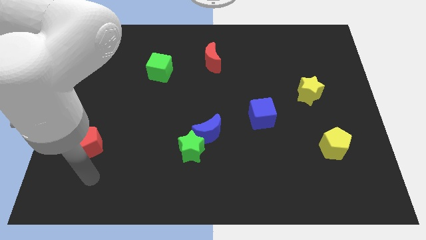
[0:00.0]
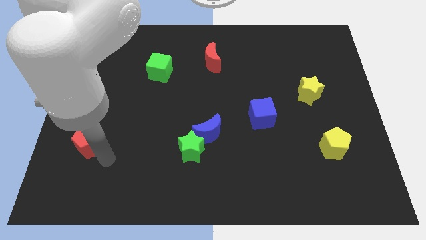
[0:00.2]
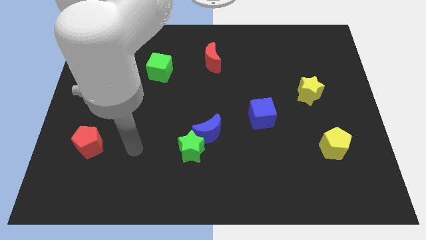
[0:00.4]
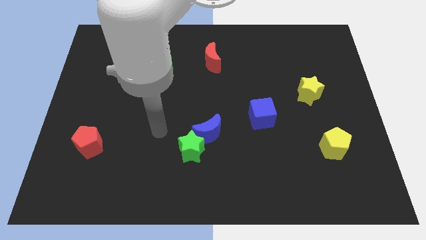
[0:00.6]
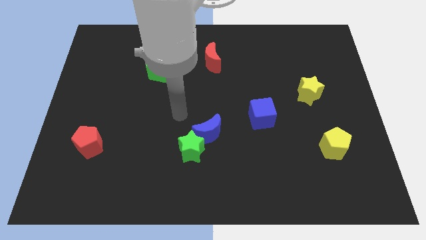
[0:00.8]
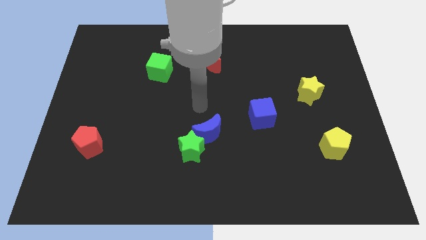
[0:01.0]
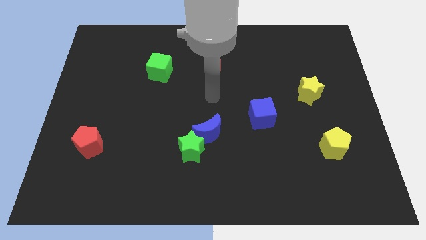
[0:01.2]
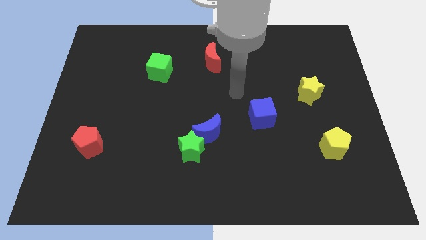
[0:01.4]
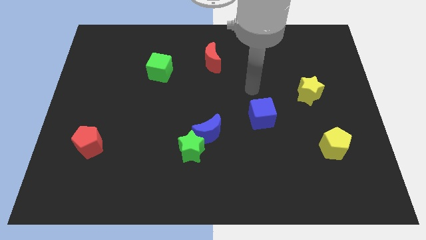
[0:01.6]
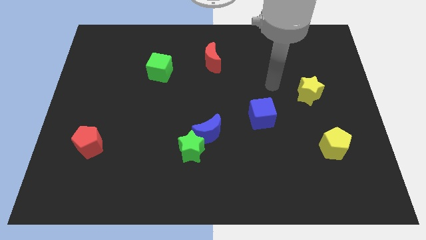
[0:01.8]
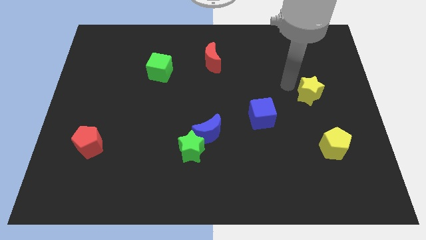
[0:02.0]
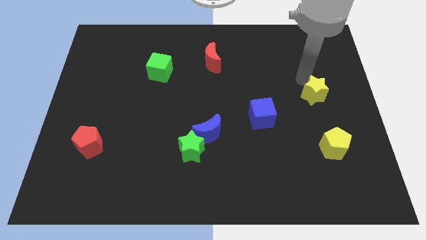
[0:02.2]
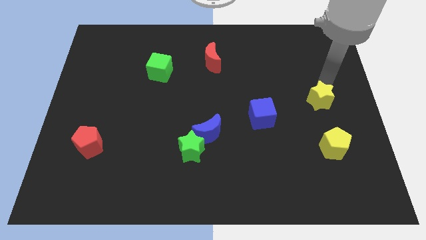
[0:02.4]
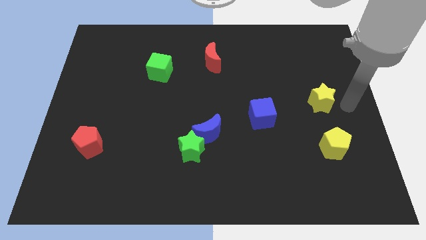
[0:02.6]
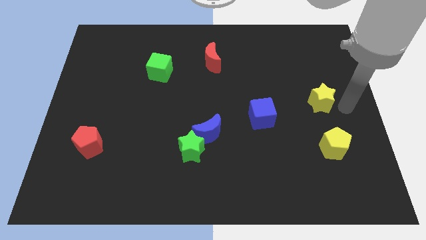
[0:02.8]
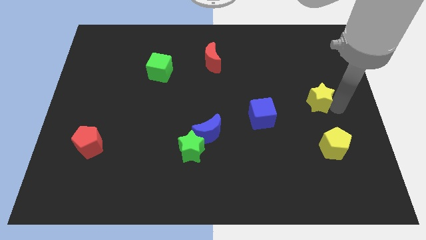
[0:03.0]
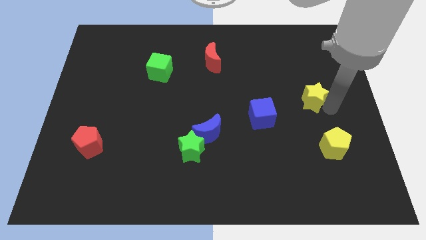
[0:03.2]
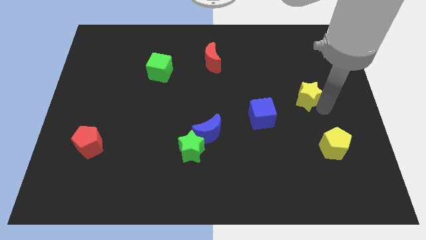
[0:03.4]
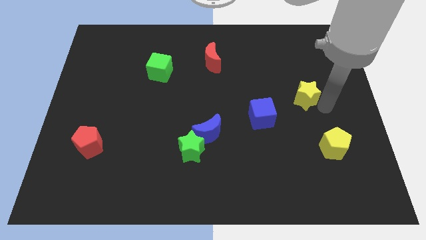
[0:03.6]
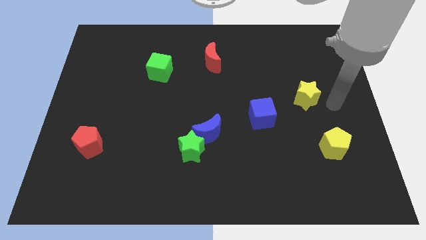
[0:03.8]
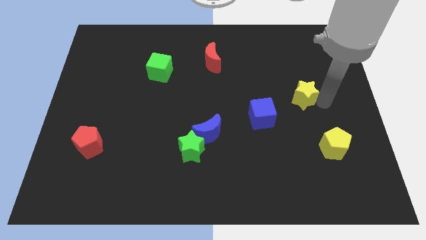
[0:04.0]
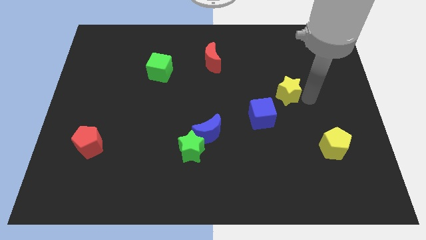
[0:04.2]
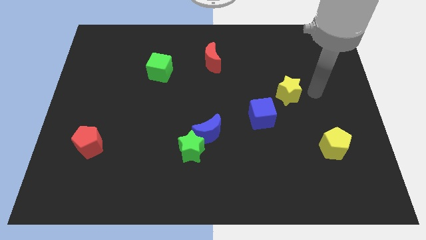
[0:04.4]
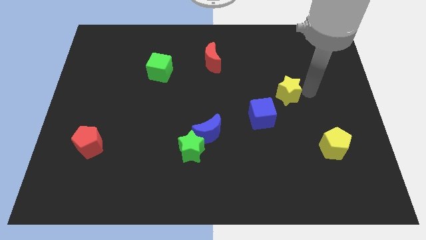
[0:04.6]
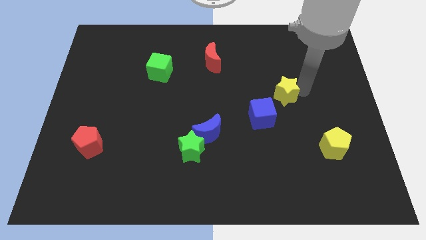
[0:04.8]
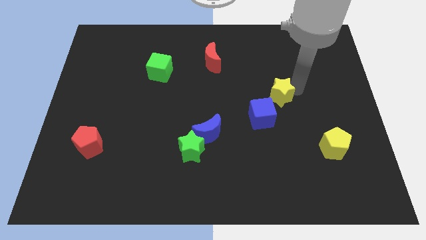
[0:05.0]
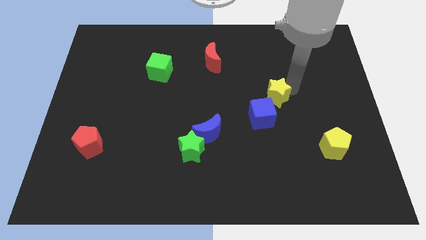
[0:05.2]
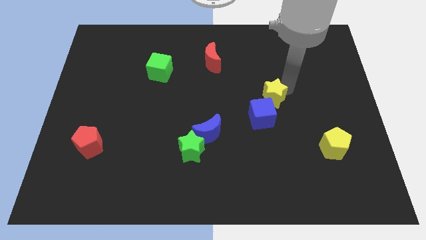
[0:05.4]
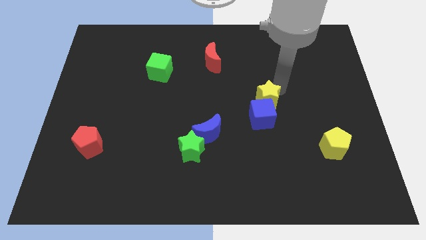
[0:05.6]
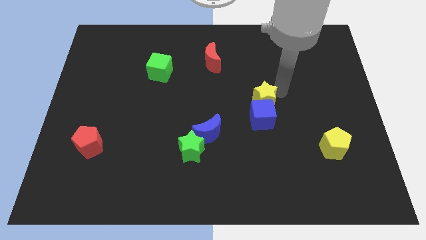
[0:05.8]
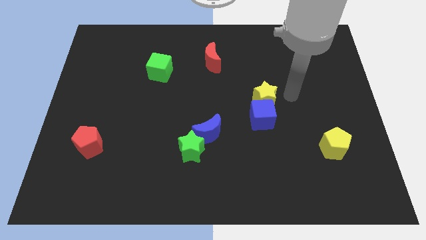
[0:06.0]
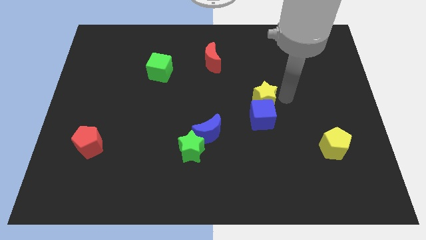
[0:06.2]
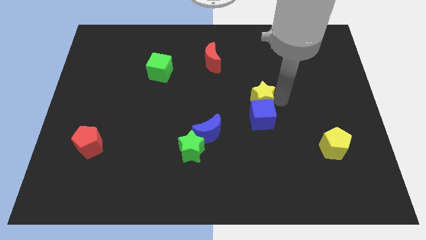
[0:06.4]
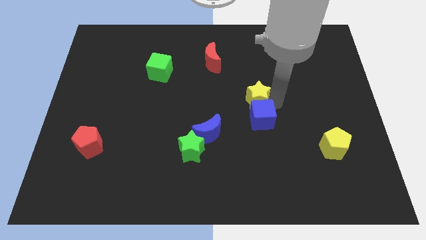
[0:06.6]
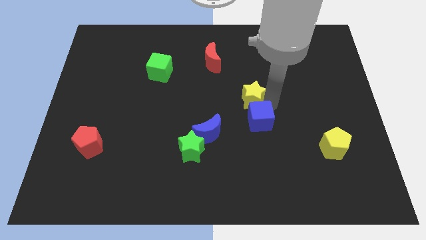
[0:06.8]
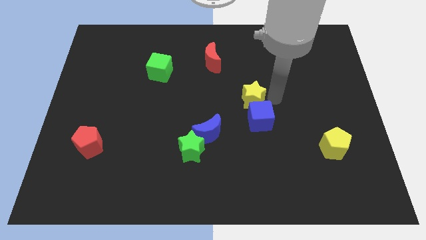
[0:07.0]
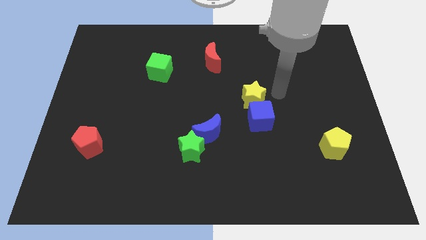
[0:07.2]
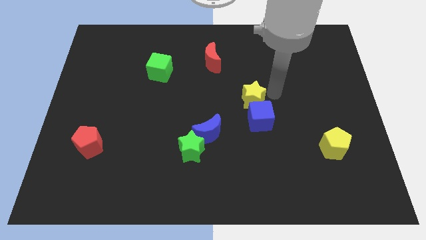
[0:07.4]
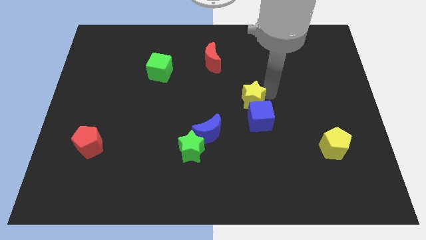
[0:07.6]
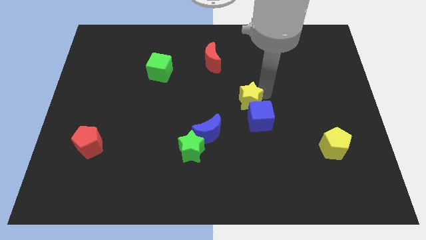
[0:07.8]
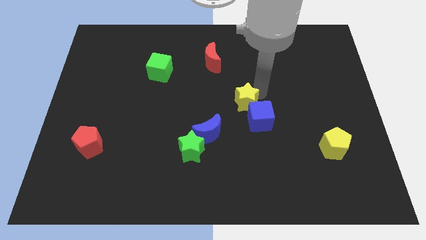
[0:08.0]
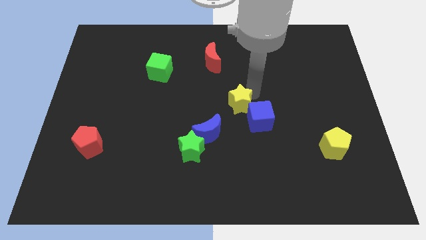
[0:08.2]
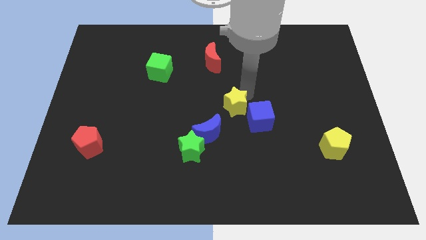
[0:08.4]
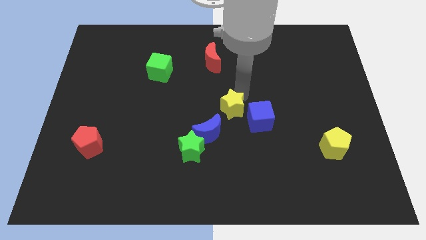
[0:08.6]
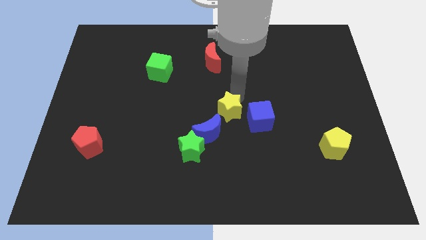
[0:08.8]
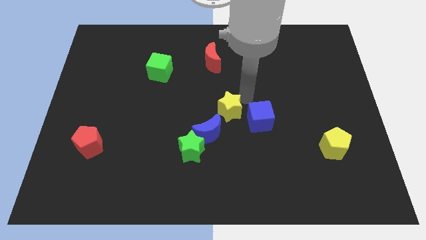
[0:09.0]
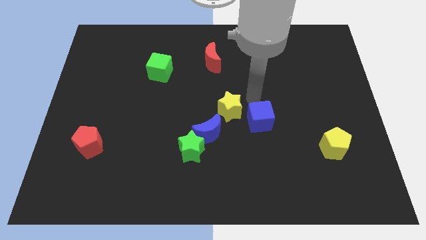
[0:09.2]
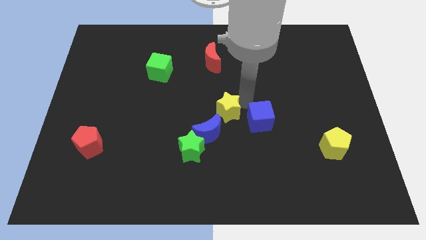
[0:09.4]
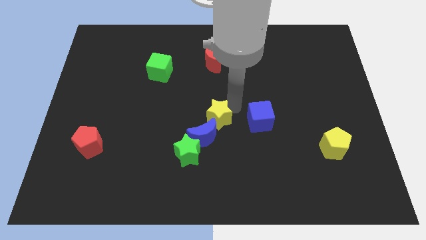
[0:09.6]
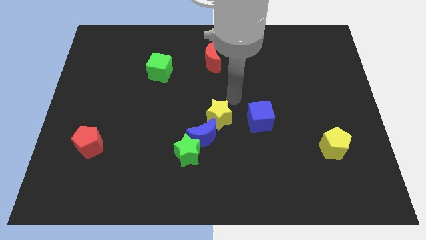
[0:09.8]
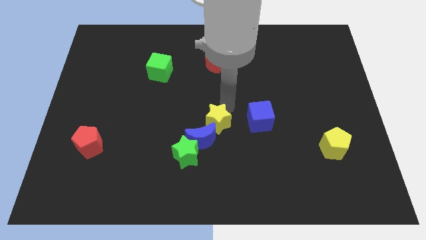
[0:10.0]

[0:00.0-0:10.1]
slide the yellow star close to the blue moon

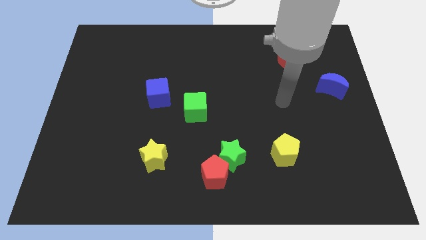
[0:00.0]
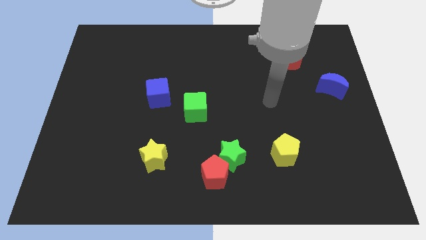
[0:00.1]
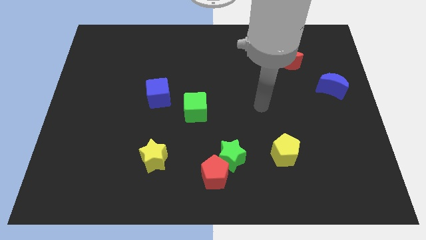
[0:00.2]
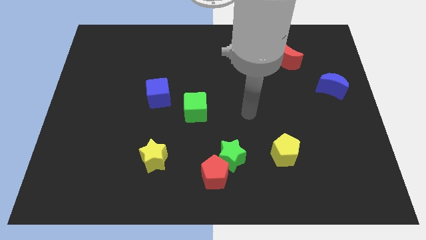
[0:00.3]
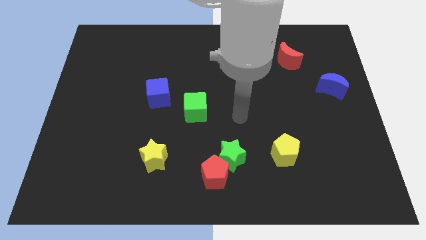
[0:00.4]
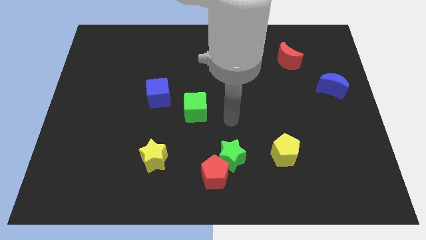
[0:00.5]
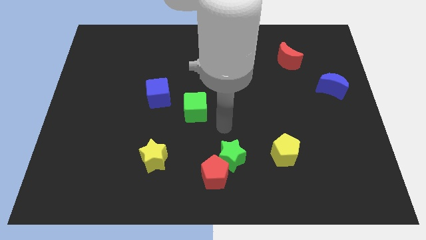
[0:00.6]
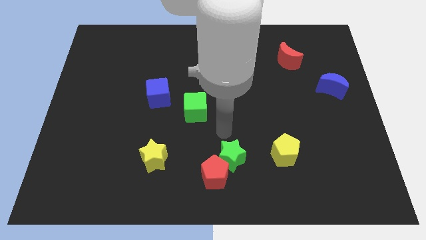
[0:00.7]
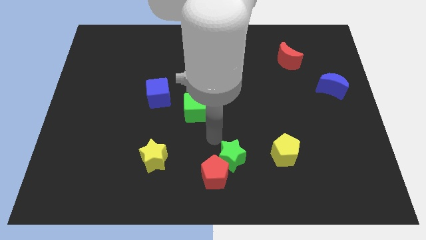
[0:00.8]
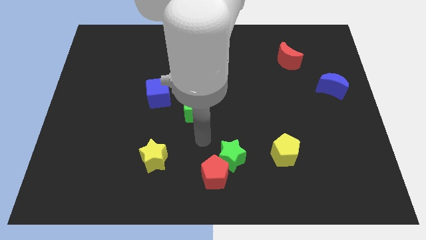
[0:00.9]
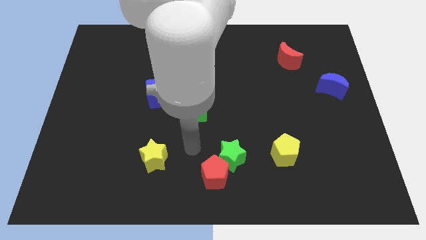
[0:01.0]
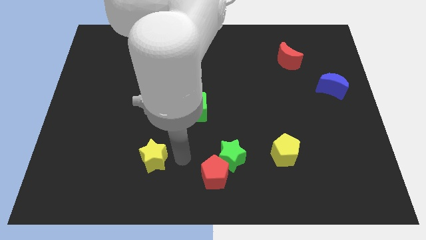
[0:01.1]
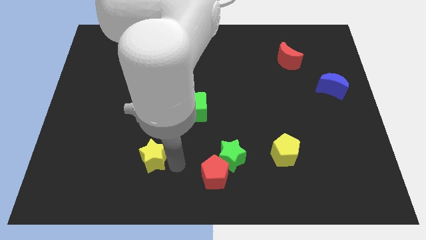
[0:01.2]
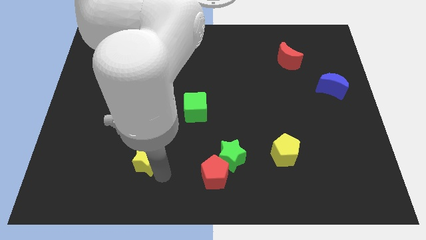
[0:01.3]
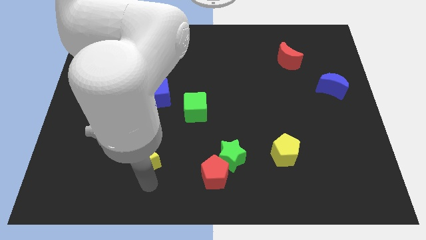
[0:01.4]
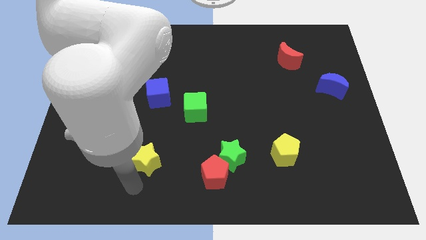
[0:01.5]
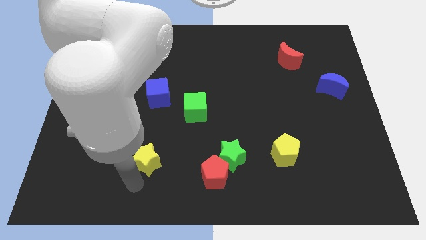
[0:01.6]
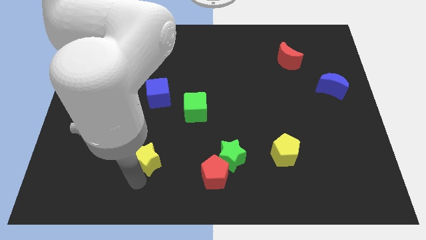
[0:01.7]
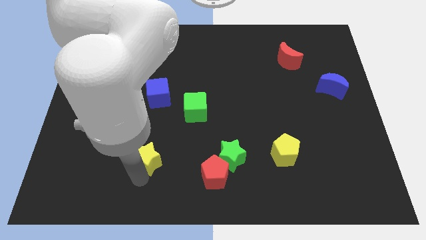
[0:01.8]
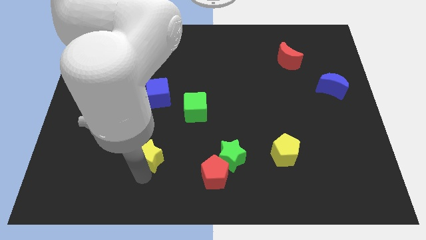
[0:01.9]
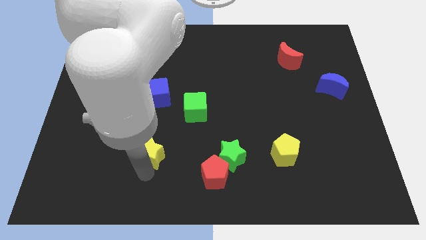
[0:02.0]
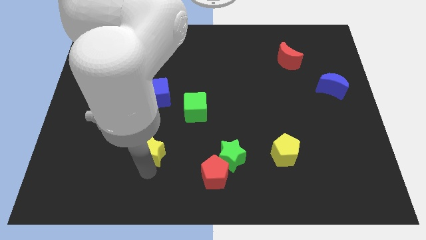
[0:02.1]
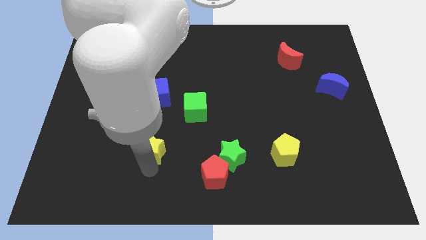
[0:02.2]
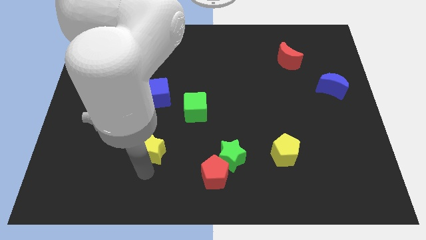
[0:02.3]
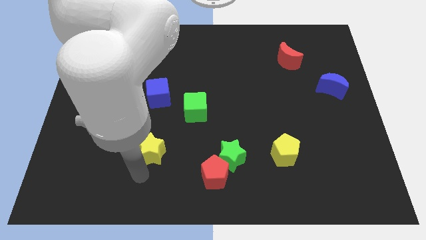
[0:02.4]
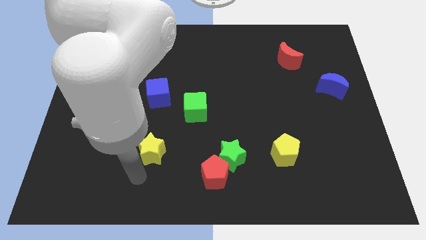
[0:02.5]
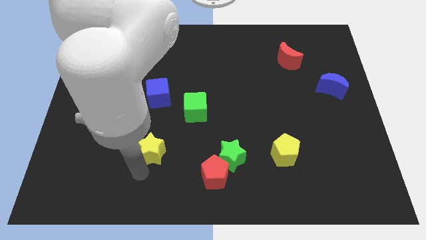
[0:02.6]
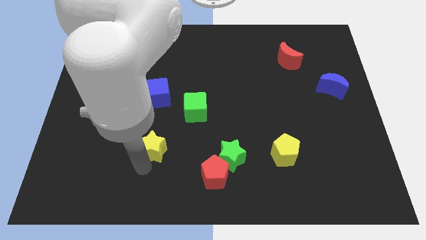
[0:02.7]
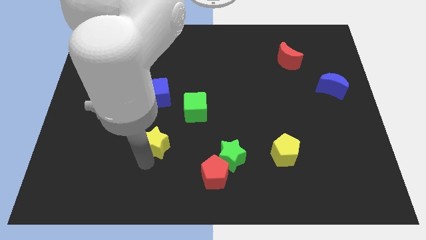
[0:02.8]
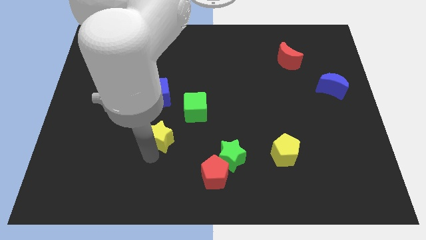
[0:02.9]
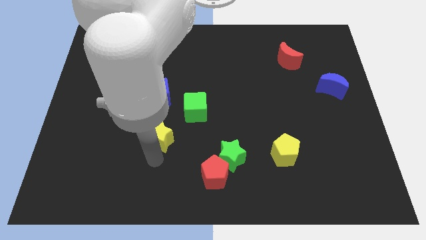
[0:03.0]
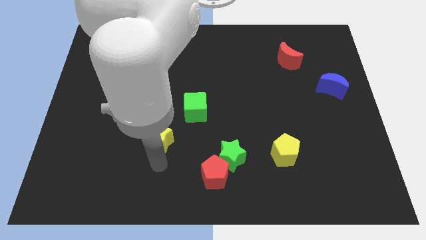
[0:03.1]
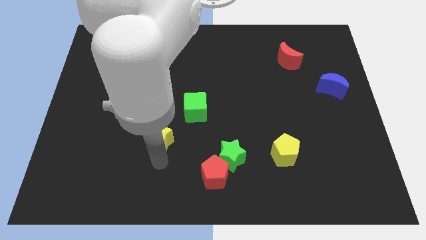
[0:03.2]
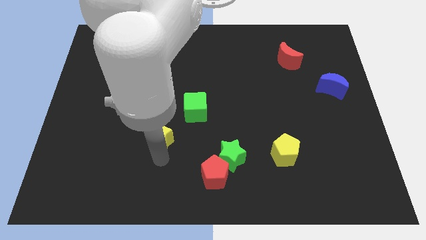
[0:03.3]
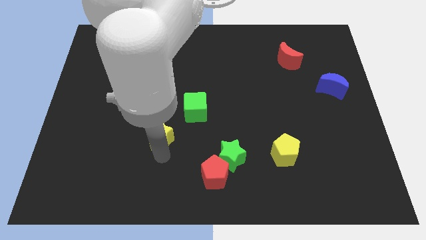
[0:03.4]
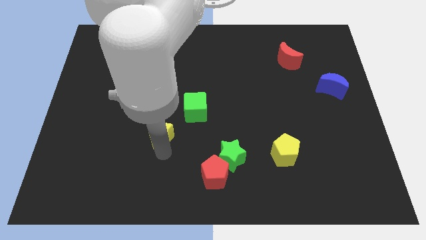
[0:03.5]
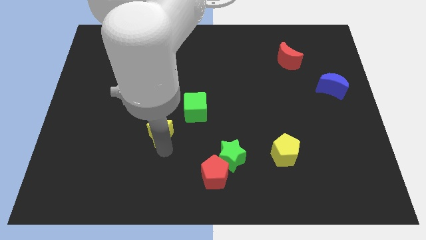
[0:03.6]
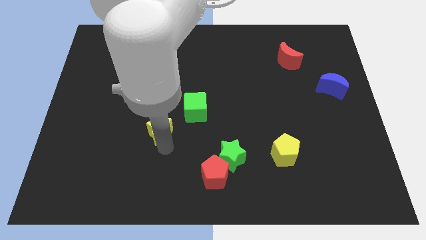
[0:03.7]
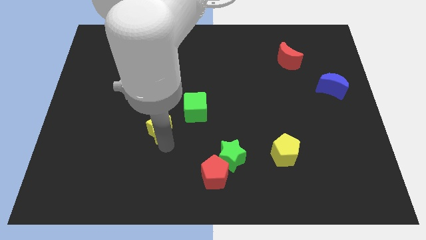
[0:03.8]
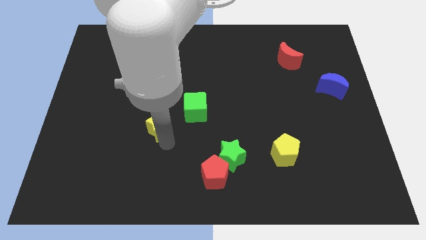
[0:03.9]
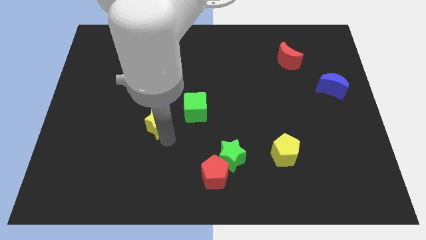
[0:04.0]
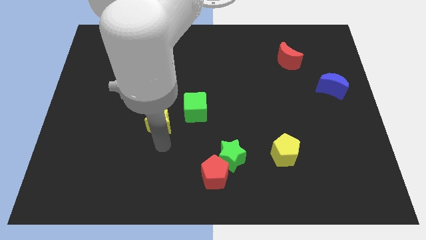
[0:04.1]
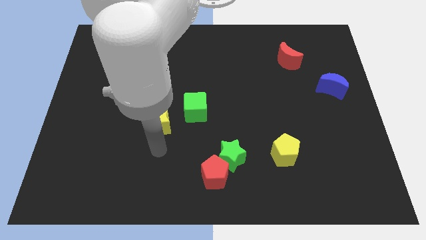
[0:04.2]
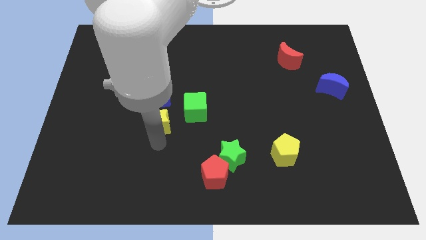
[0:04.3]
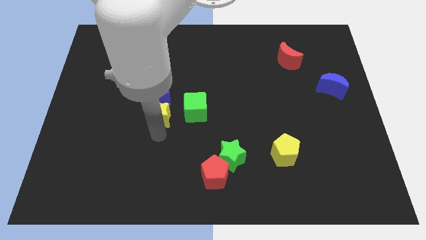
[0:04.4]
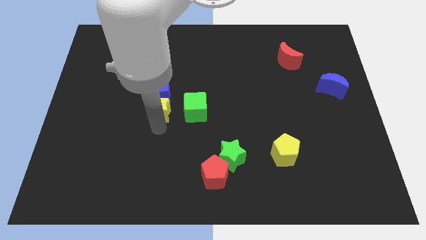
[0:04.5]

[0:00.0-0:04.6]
put the yellow star next to the blue cube
